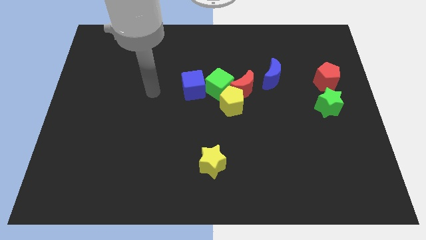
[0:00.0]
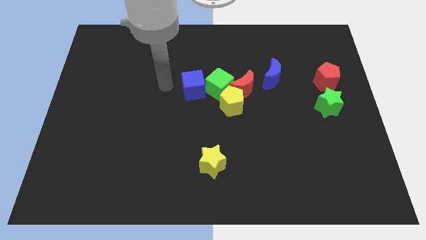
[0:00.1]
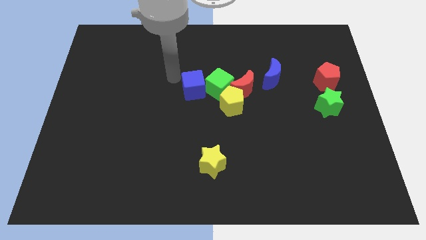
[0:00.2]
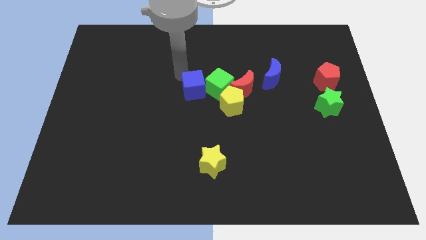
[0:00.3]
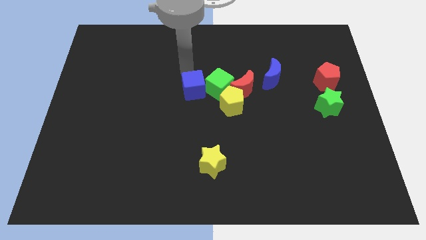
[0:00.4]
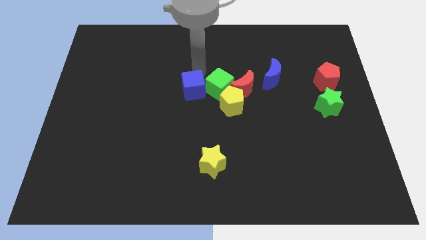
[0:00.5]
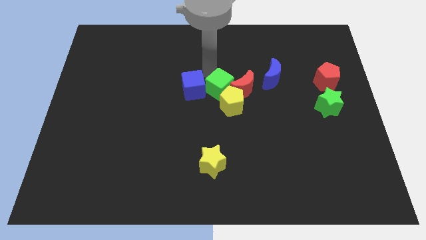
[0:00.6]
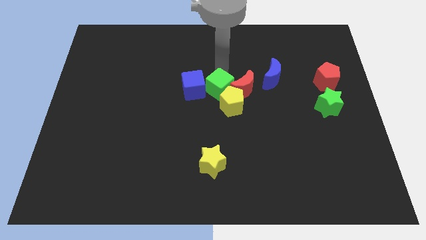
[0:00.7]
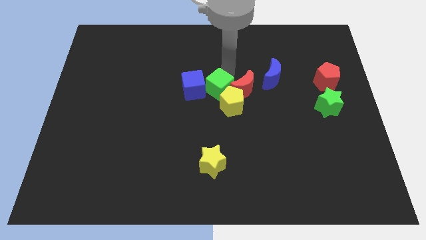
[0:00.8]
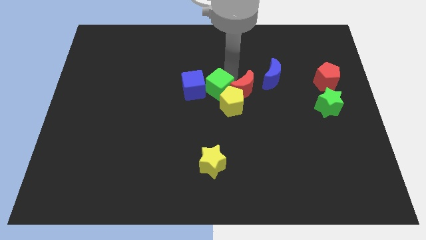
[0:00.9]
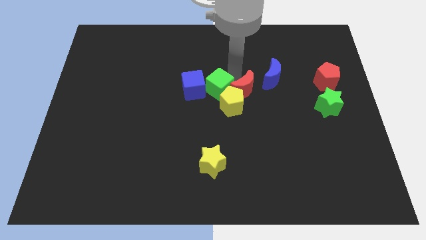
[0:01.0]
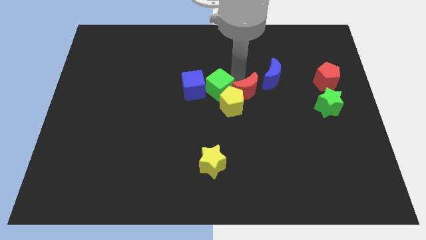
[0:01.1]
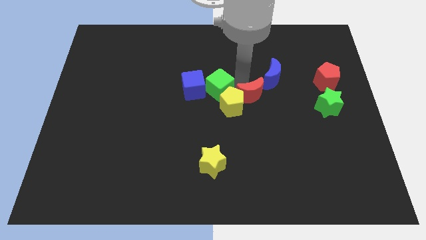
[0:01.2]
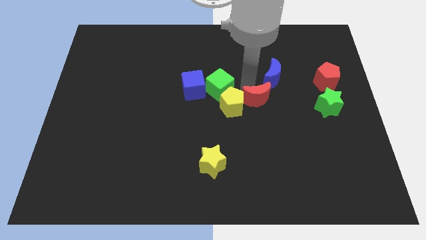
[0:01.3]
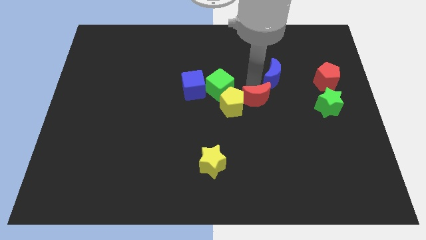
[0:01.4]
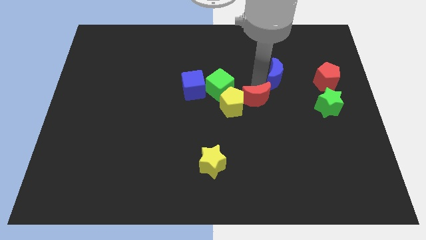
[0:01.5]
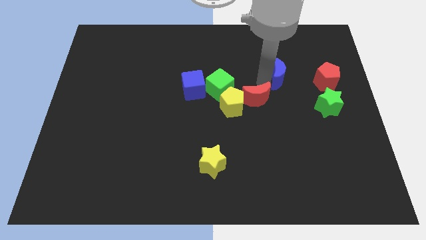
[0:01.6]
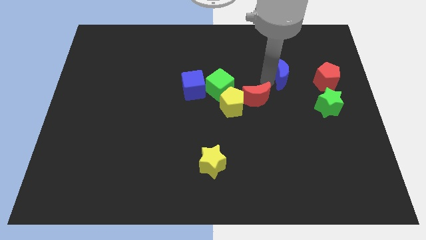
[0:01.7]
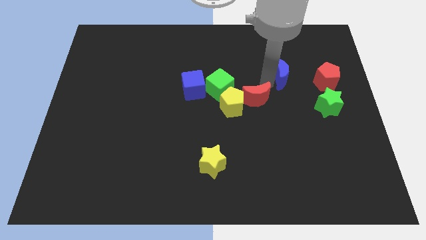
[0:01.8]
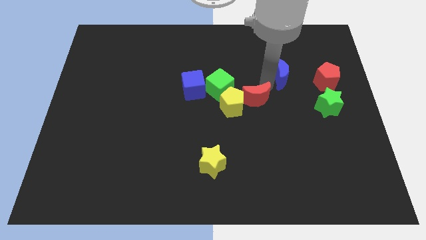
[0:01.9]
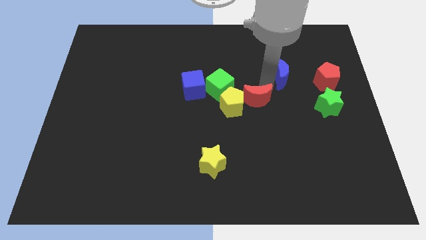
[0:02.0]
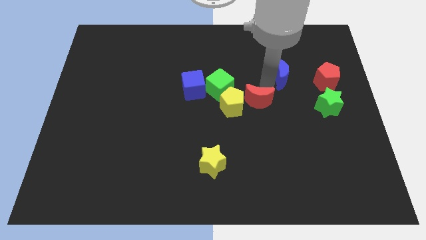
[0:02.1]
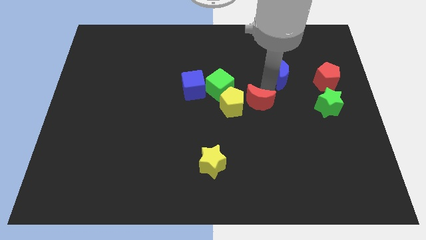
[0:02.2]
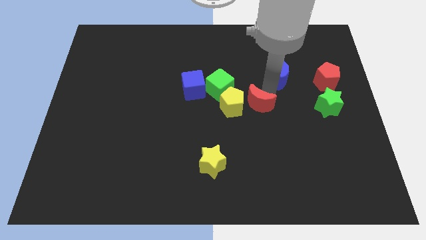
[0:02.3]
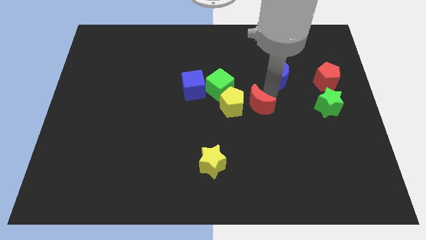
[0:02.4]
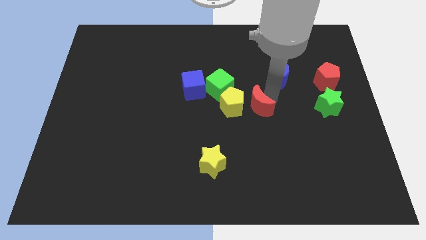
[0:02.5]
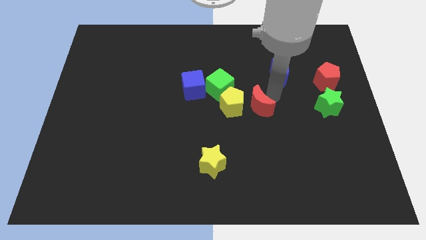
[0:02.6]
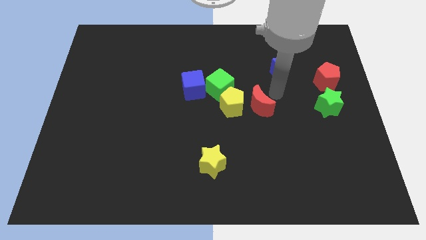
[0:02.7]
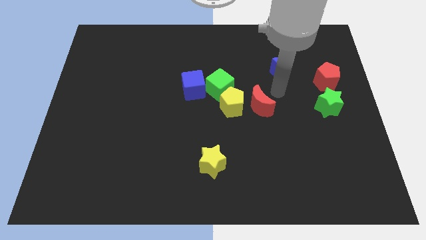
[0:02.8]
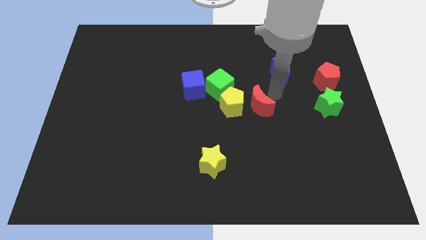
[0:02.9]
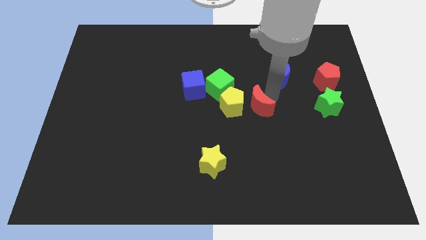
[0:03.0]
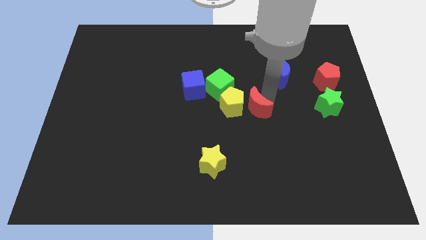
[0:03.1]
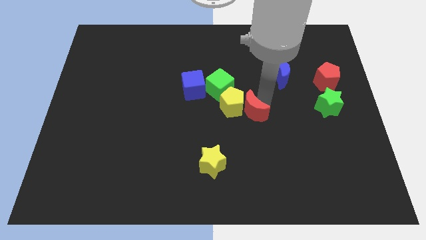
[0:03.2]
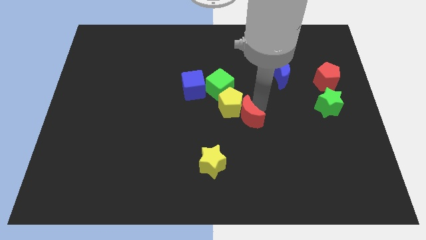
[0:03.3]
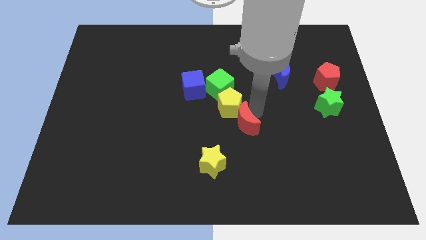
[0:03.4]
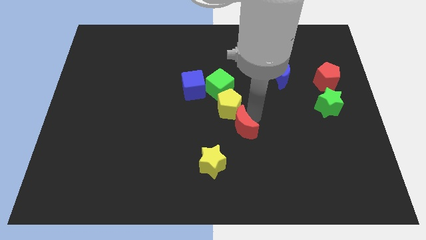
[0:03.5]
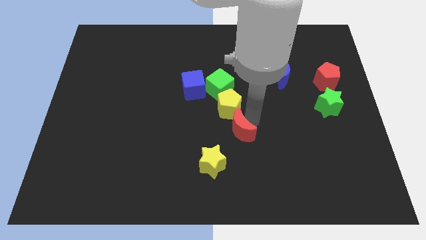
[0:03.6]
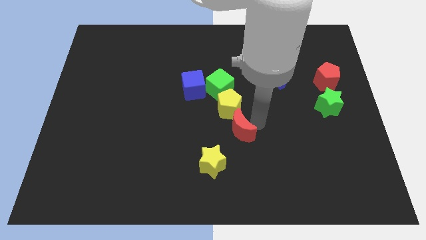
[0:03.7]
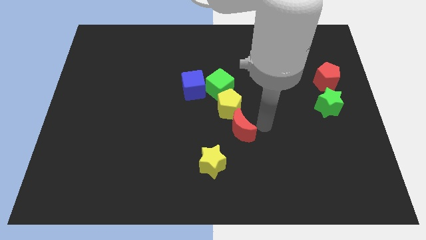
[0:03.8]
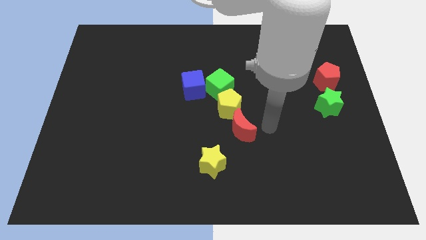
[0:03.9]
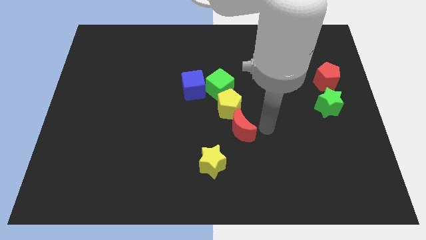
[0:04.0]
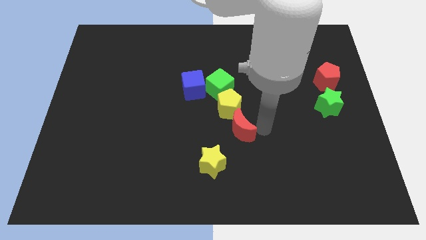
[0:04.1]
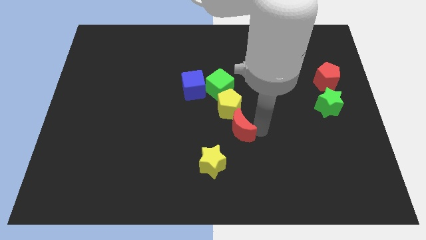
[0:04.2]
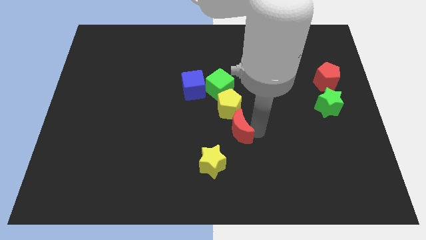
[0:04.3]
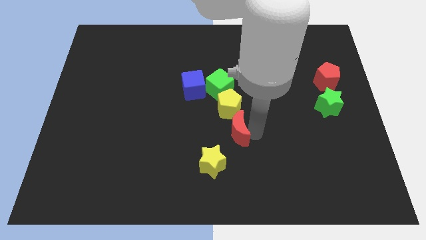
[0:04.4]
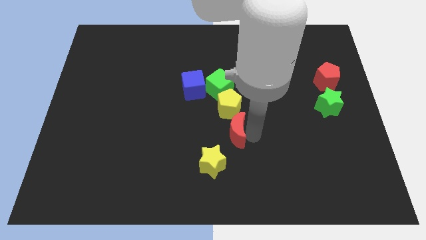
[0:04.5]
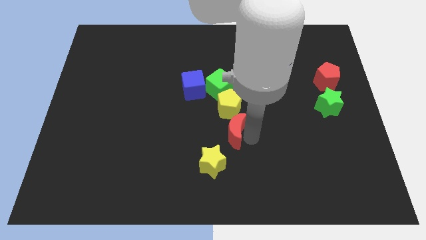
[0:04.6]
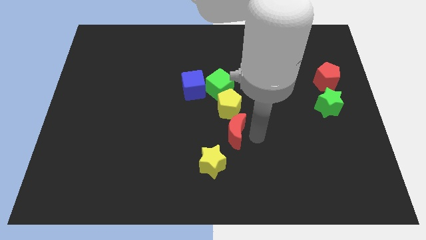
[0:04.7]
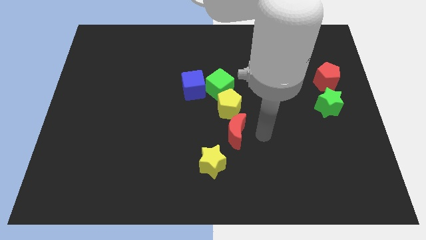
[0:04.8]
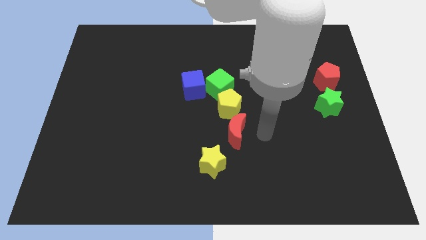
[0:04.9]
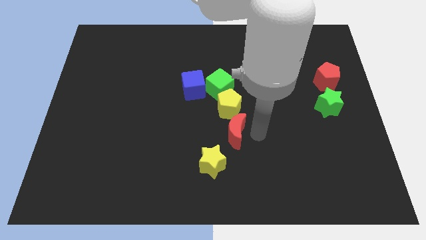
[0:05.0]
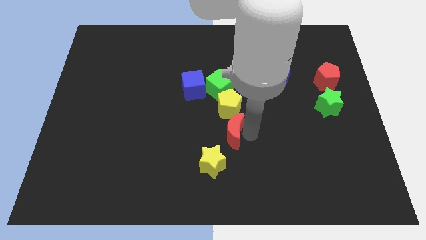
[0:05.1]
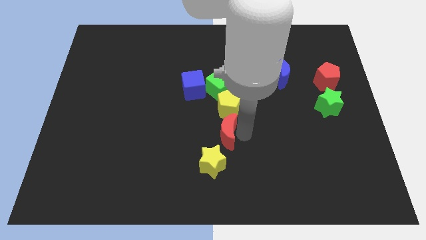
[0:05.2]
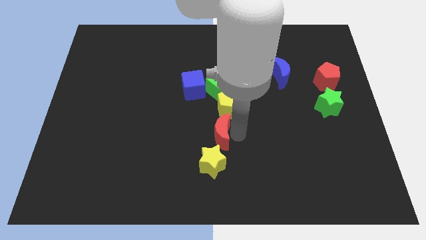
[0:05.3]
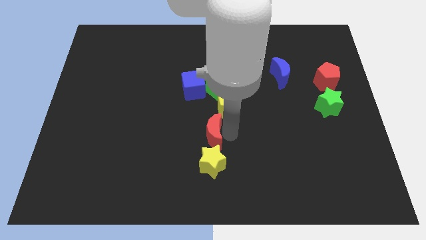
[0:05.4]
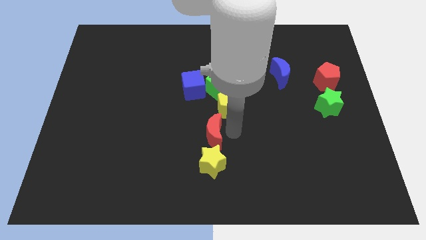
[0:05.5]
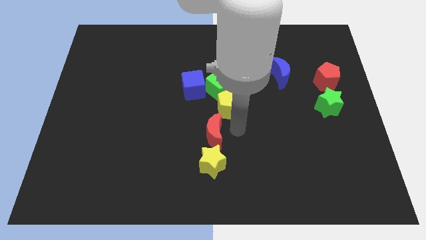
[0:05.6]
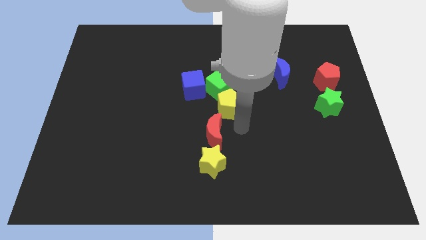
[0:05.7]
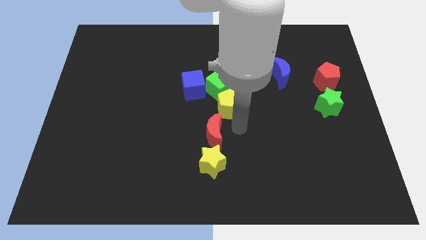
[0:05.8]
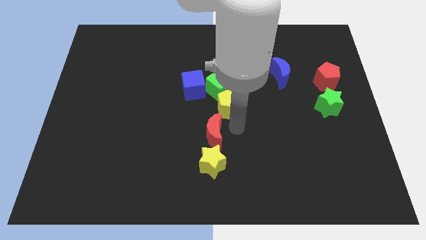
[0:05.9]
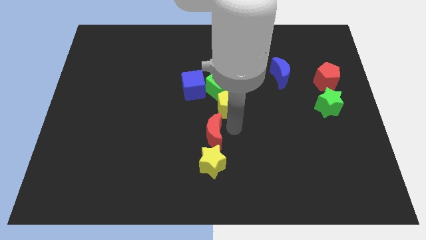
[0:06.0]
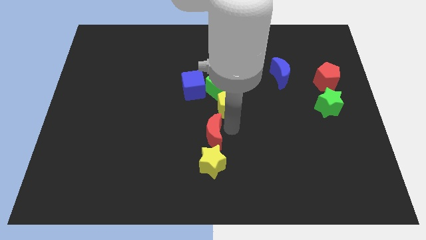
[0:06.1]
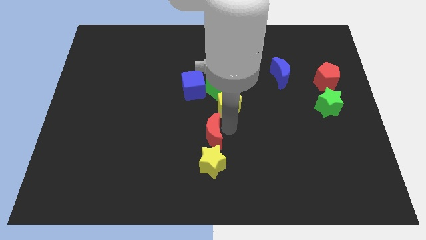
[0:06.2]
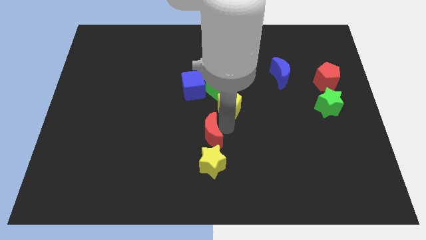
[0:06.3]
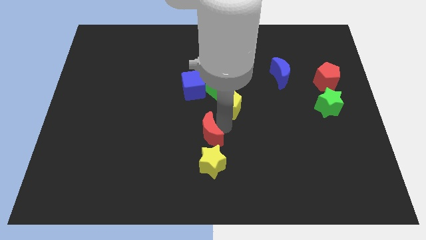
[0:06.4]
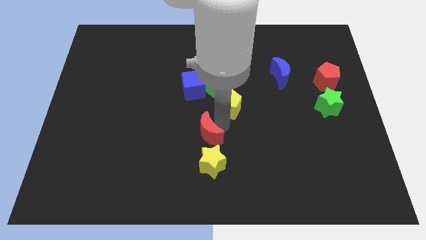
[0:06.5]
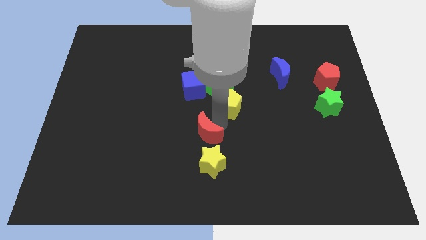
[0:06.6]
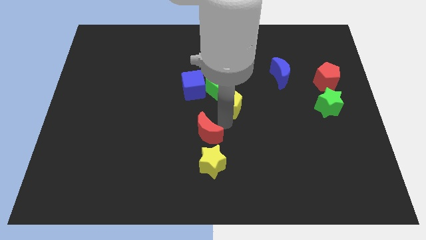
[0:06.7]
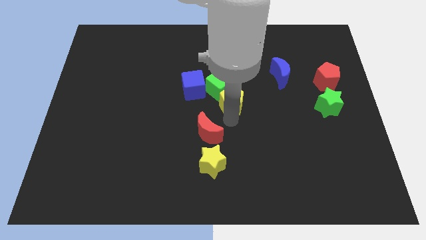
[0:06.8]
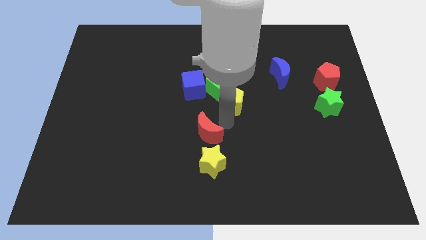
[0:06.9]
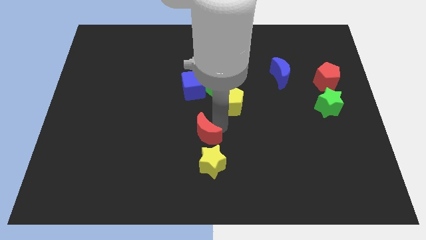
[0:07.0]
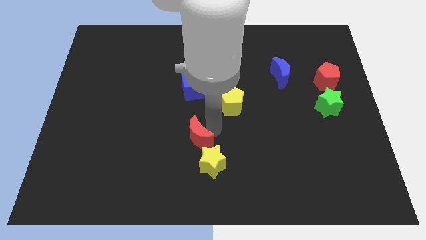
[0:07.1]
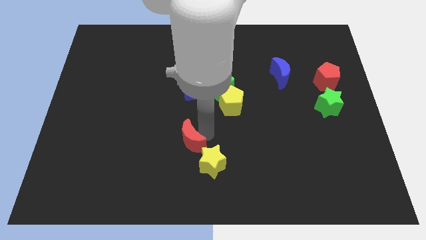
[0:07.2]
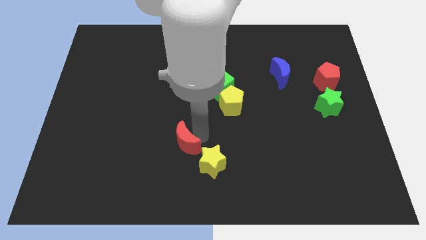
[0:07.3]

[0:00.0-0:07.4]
push the red moon downwards and left diagonally

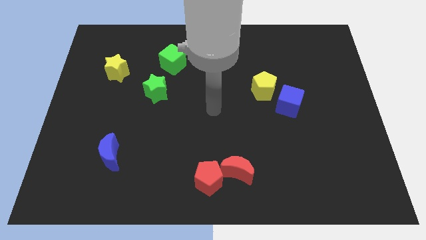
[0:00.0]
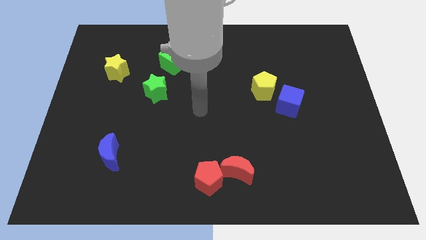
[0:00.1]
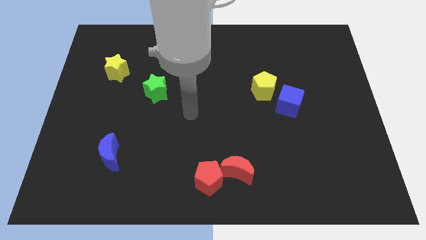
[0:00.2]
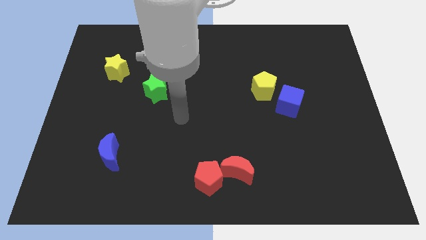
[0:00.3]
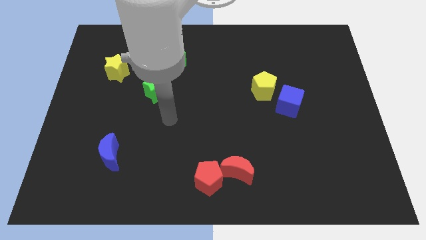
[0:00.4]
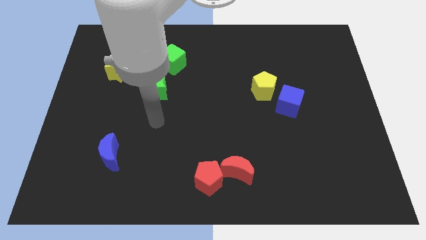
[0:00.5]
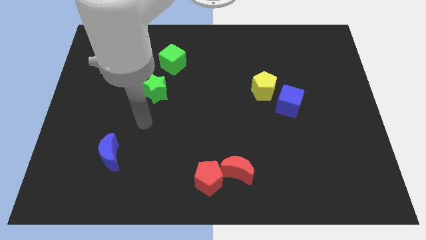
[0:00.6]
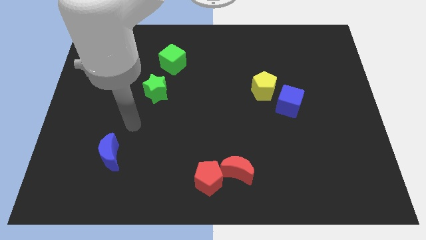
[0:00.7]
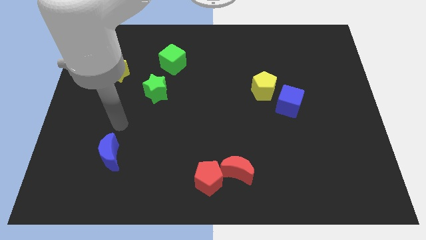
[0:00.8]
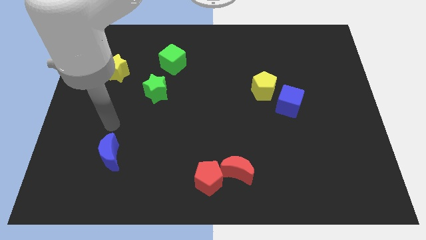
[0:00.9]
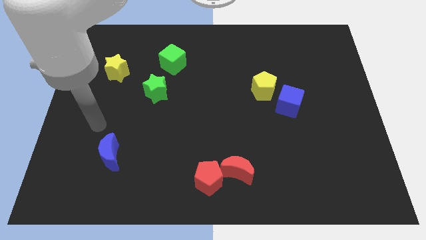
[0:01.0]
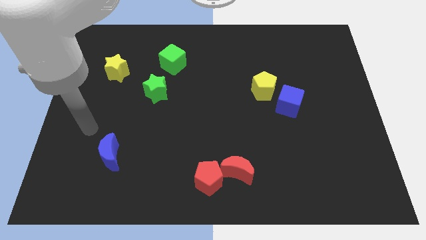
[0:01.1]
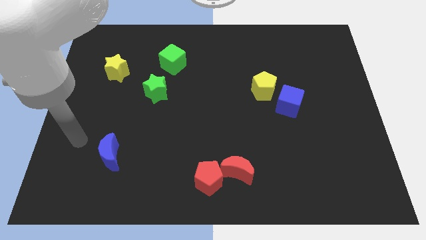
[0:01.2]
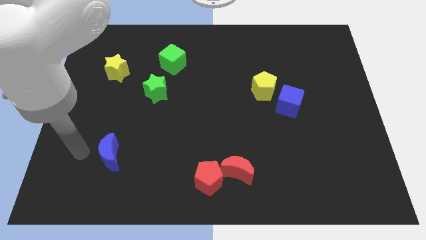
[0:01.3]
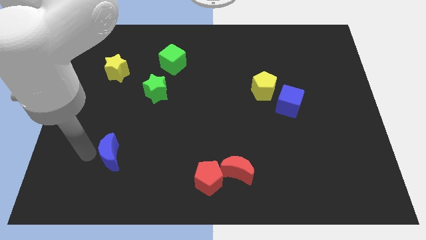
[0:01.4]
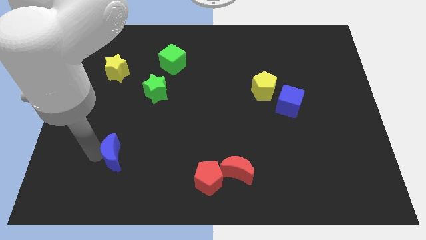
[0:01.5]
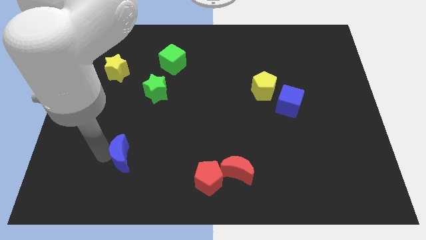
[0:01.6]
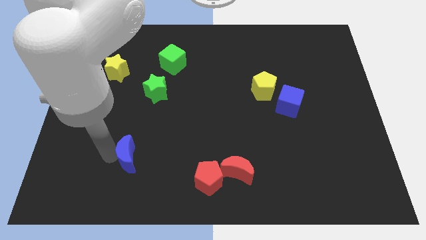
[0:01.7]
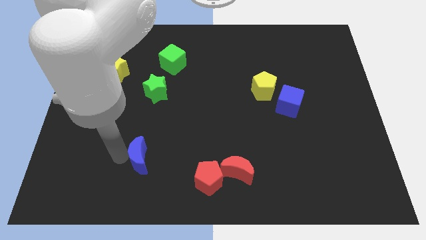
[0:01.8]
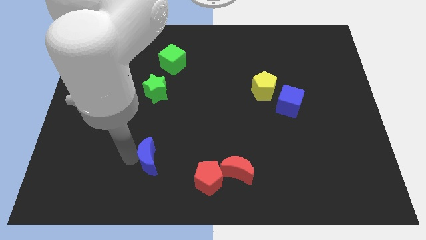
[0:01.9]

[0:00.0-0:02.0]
push the blue moon to the right a little bit
